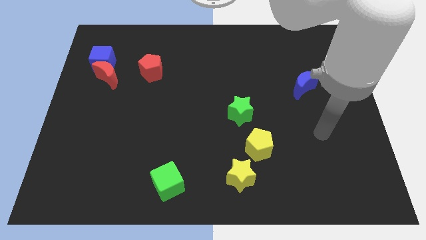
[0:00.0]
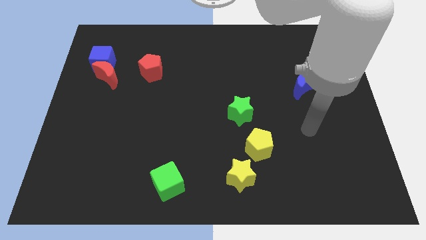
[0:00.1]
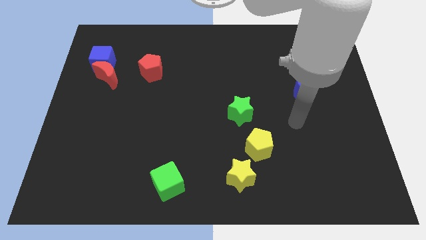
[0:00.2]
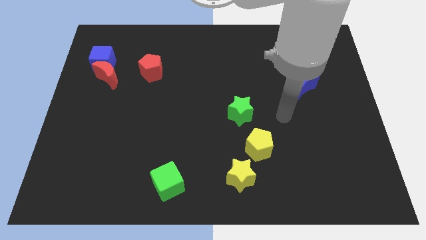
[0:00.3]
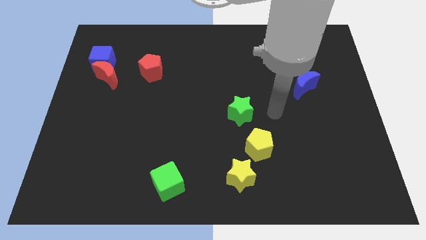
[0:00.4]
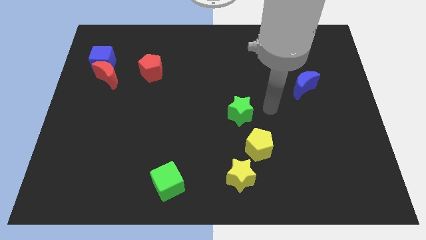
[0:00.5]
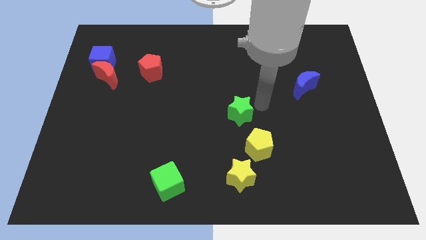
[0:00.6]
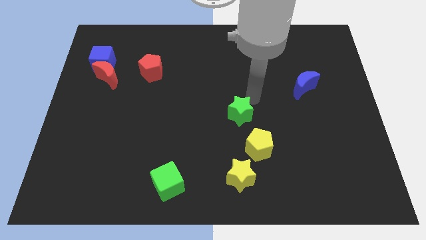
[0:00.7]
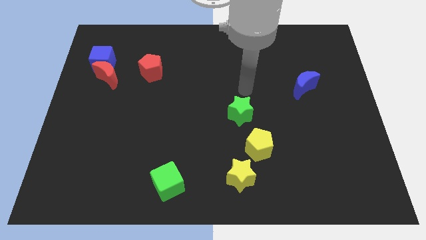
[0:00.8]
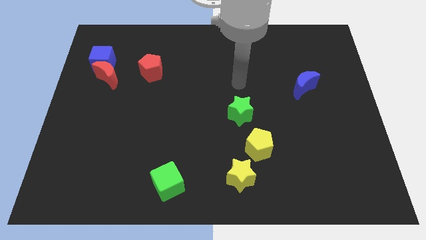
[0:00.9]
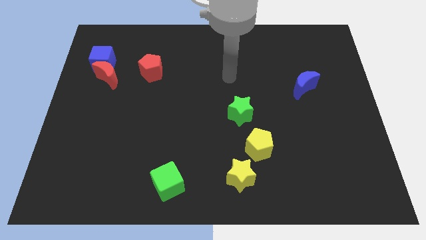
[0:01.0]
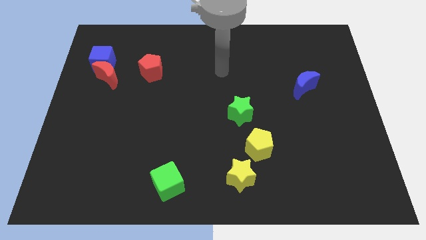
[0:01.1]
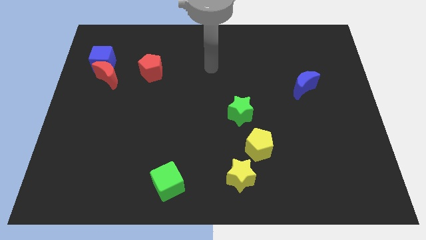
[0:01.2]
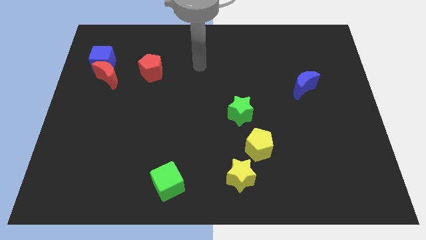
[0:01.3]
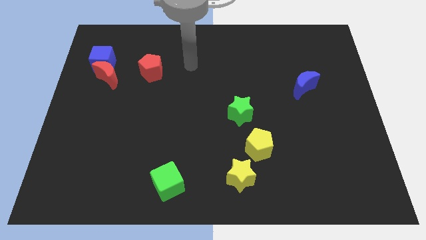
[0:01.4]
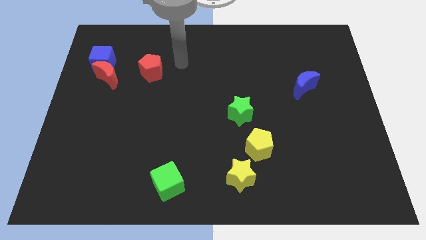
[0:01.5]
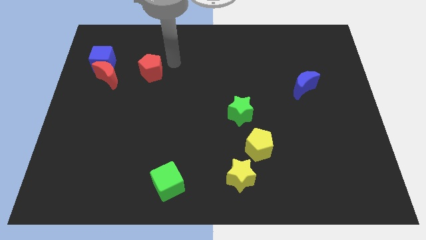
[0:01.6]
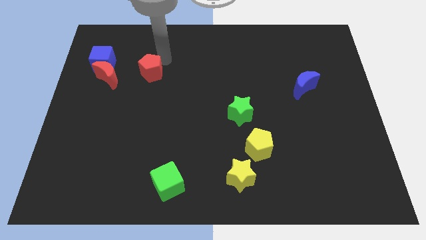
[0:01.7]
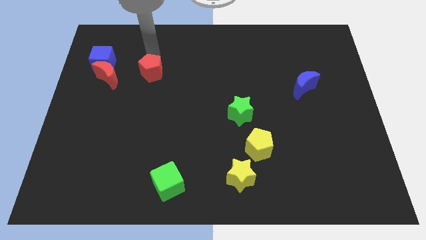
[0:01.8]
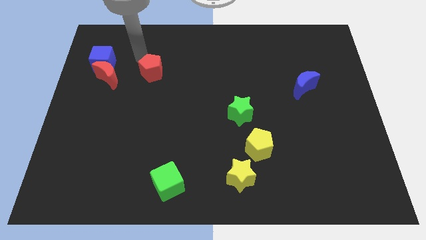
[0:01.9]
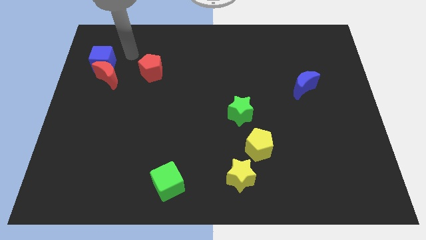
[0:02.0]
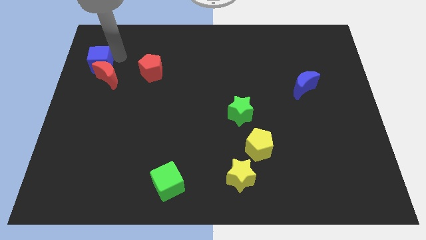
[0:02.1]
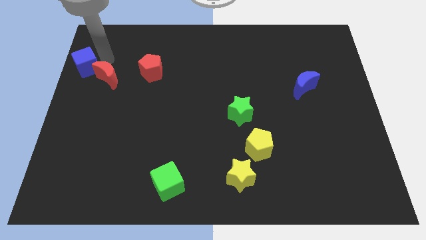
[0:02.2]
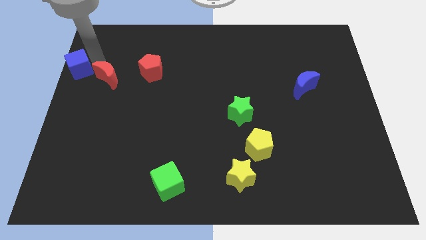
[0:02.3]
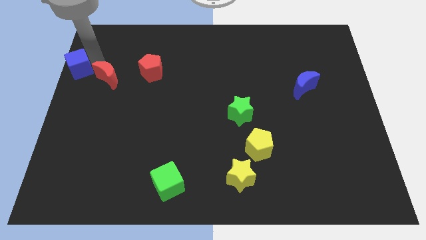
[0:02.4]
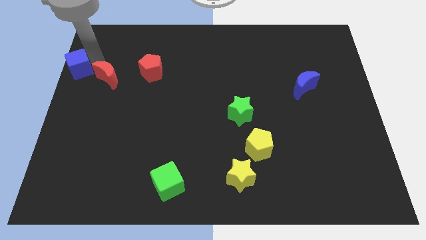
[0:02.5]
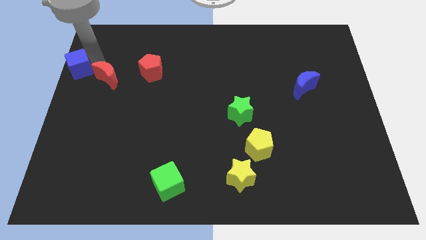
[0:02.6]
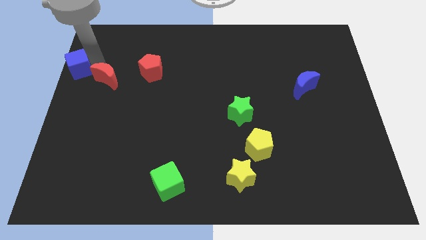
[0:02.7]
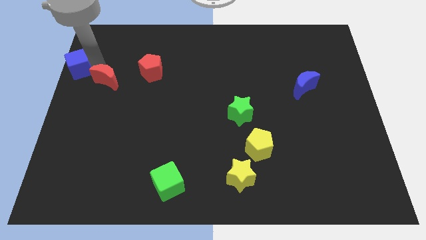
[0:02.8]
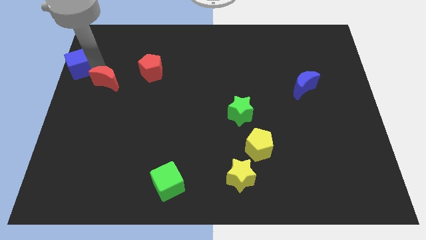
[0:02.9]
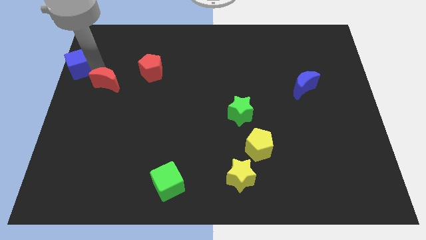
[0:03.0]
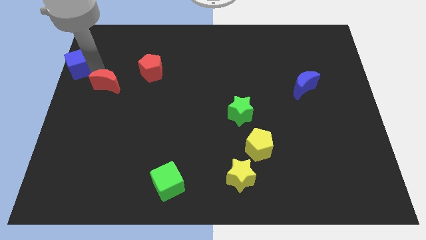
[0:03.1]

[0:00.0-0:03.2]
pull the red moon apart from the blue cube

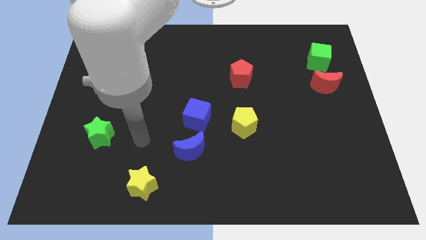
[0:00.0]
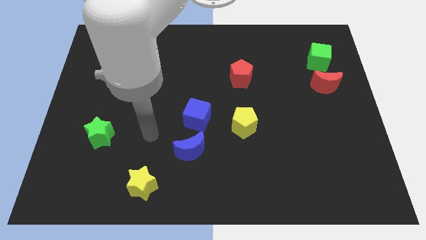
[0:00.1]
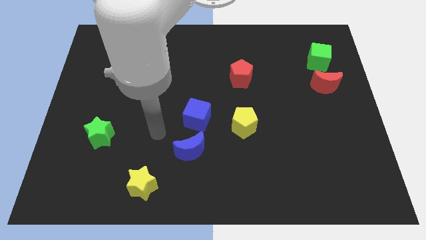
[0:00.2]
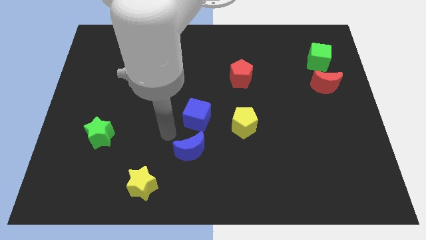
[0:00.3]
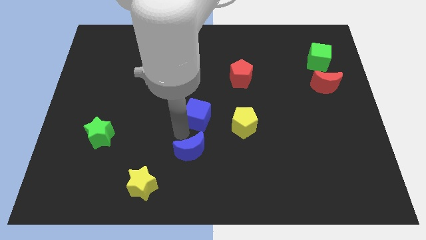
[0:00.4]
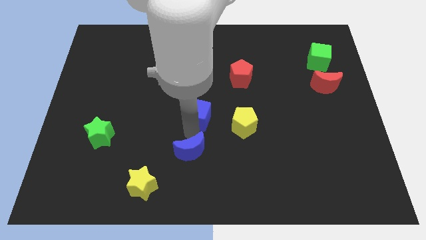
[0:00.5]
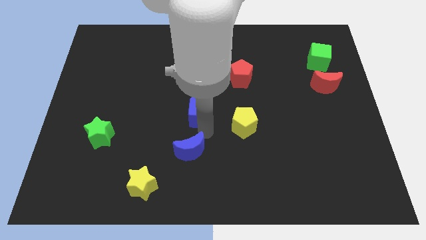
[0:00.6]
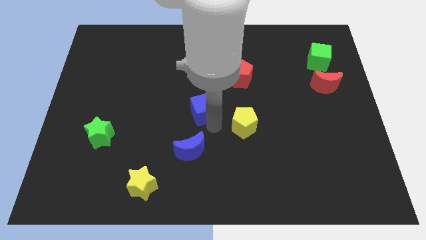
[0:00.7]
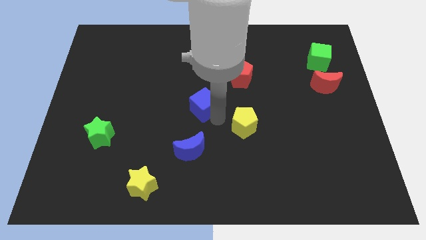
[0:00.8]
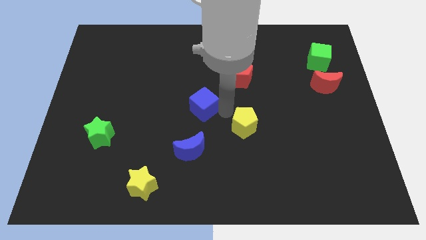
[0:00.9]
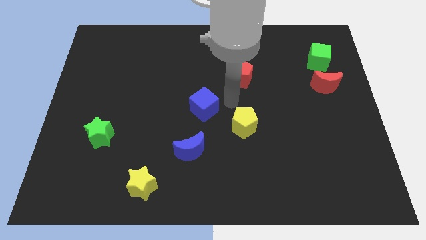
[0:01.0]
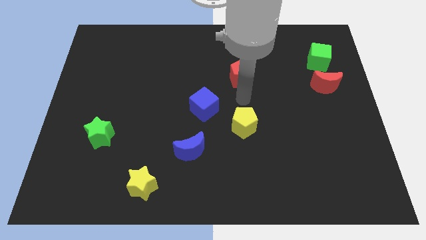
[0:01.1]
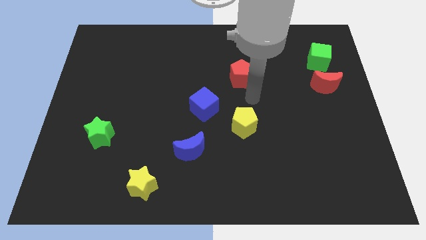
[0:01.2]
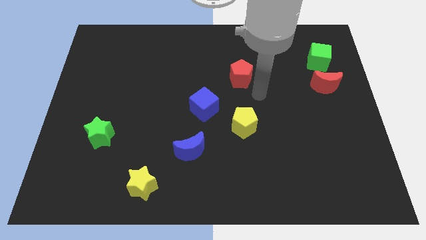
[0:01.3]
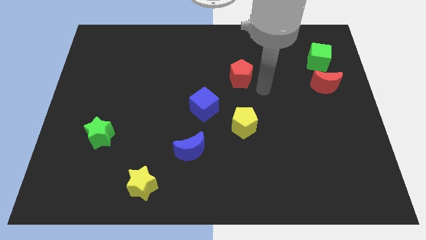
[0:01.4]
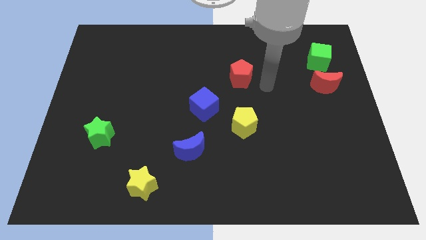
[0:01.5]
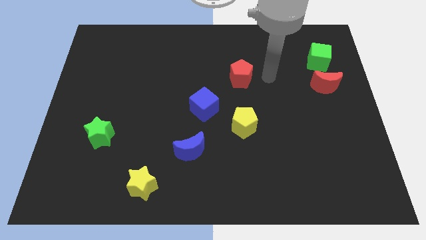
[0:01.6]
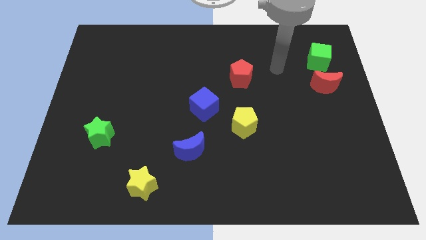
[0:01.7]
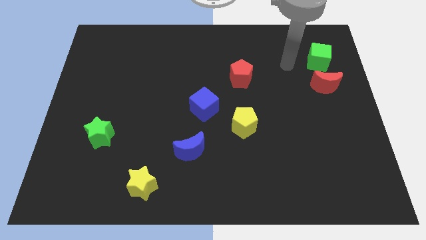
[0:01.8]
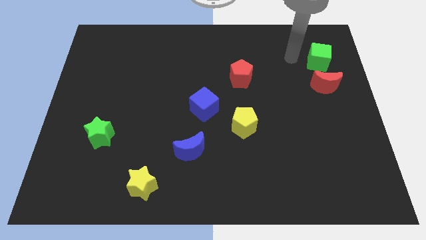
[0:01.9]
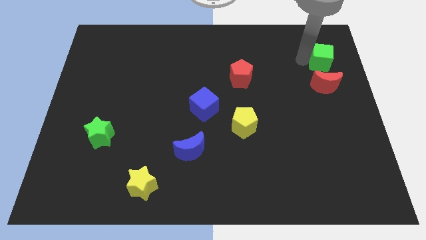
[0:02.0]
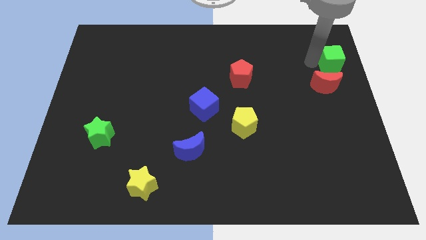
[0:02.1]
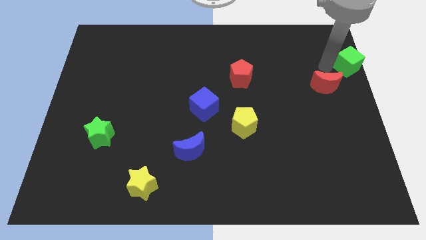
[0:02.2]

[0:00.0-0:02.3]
separate the red moon from the green cube

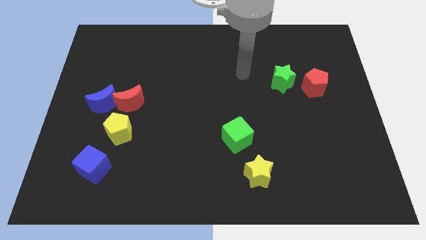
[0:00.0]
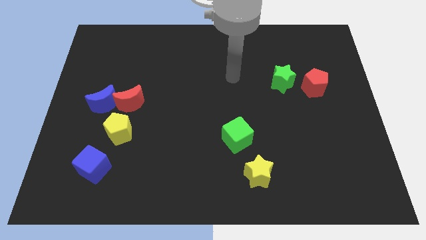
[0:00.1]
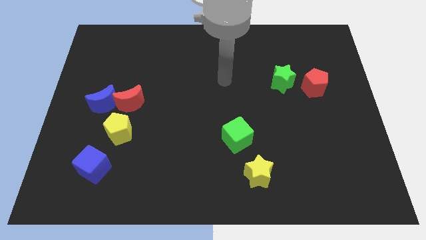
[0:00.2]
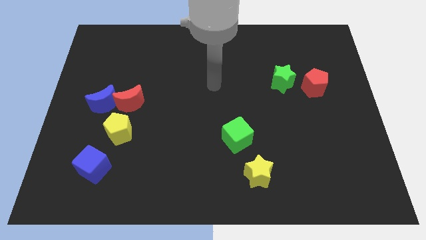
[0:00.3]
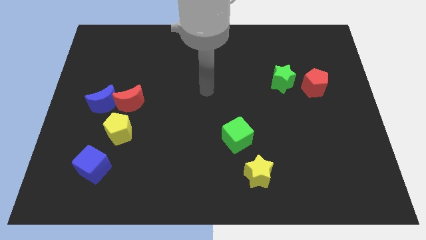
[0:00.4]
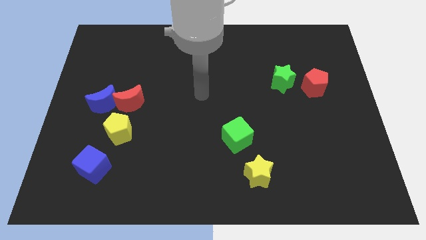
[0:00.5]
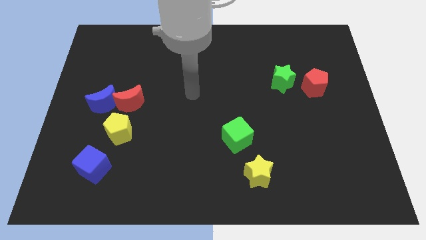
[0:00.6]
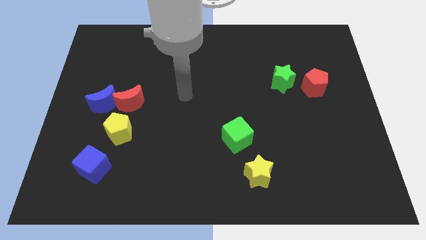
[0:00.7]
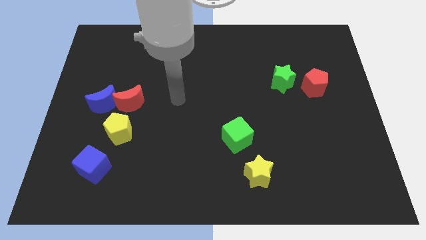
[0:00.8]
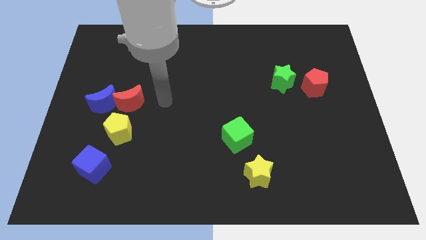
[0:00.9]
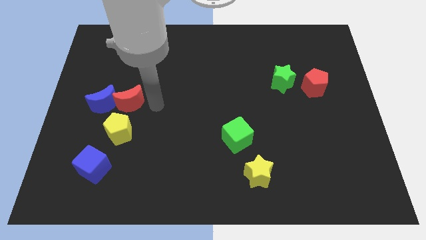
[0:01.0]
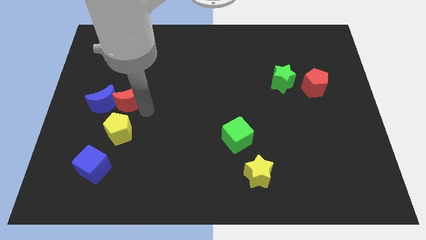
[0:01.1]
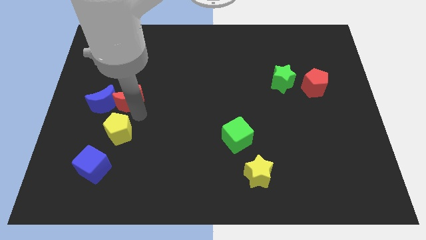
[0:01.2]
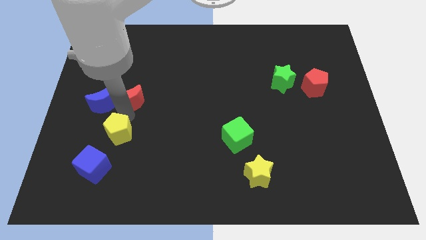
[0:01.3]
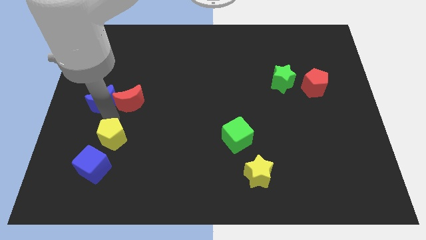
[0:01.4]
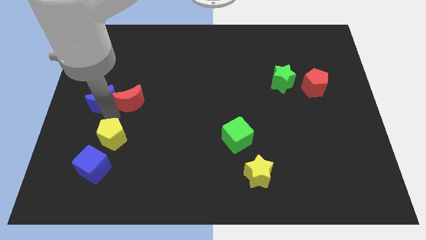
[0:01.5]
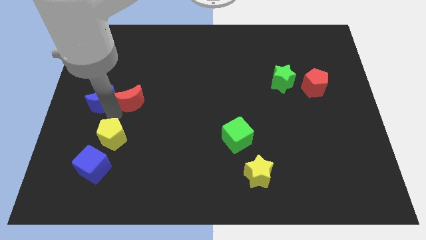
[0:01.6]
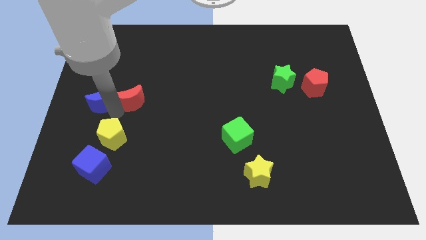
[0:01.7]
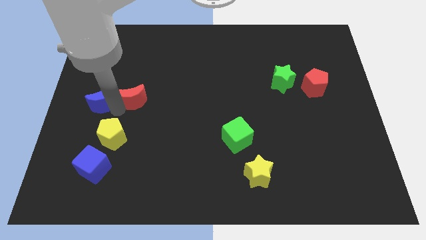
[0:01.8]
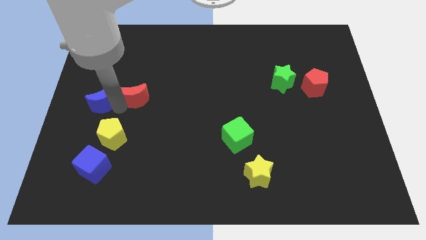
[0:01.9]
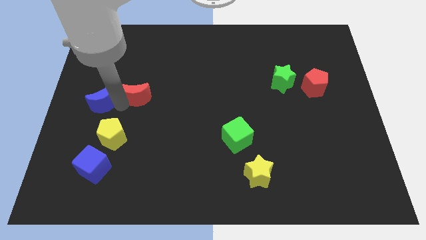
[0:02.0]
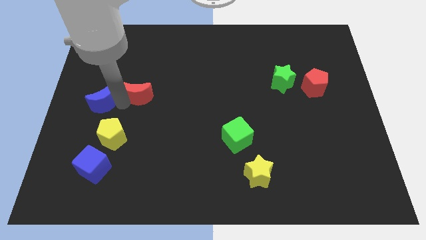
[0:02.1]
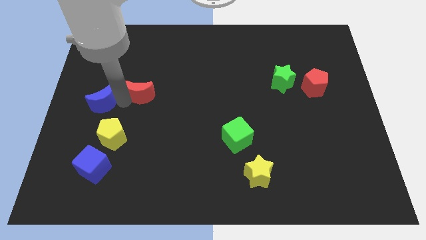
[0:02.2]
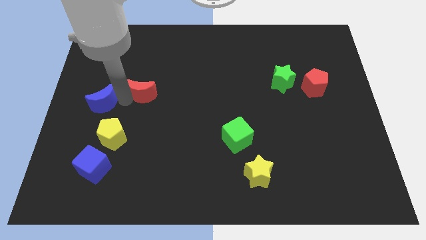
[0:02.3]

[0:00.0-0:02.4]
move the red moon away from the blue moon and yellow pentagon

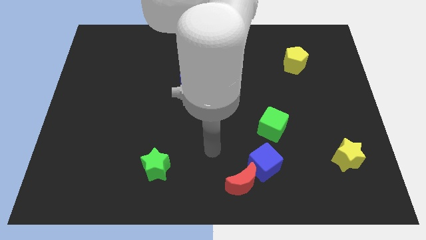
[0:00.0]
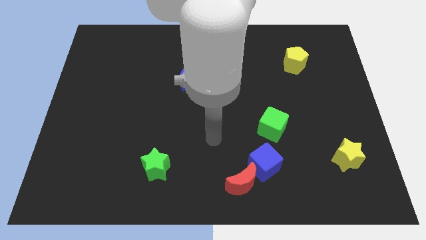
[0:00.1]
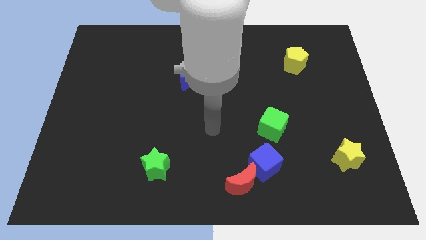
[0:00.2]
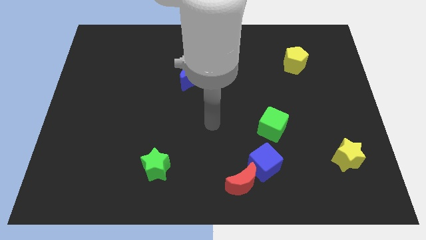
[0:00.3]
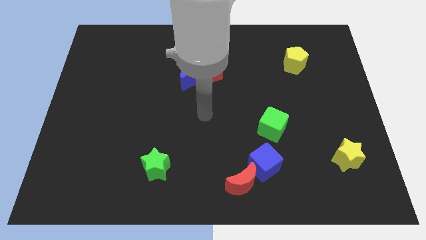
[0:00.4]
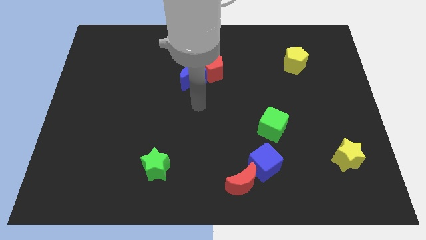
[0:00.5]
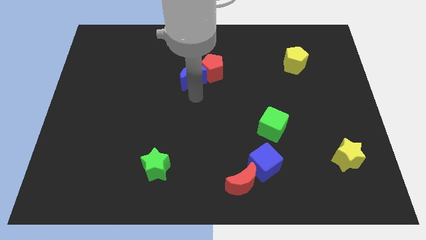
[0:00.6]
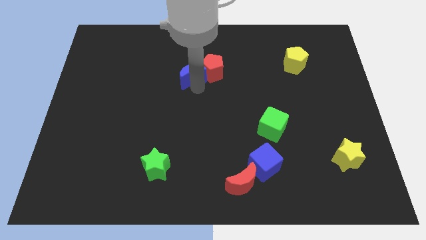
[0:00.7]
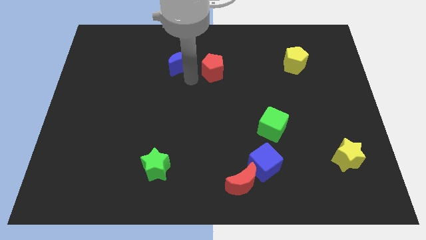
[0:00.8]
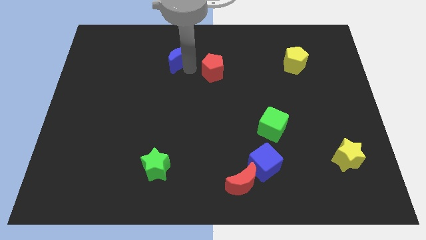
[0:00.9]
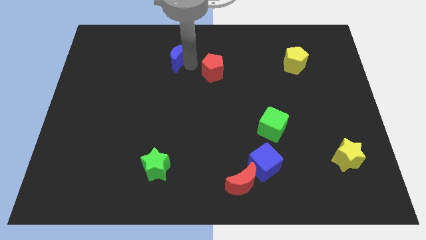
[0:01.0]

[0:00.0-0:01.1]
pull the red pentagon apart from the blue moon

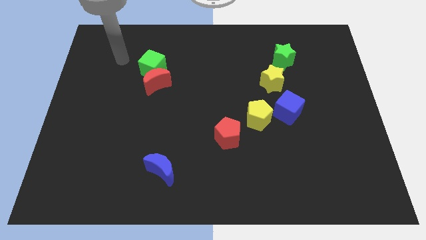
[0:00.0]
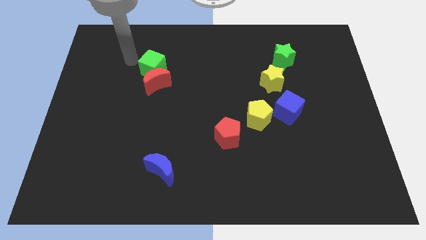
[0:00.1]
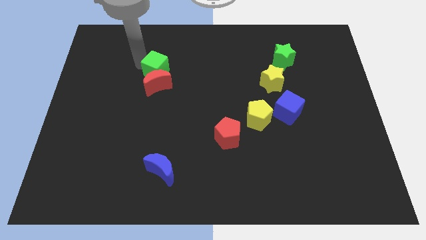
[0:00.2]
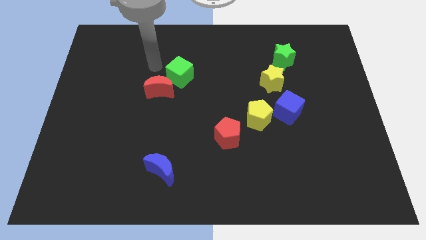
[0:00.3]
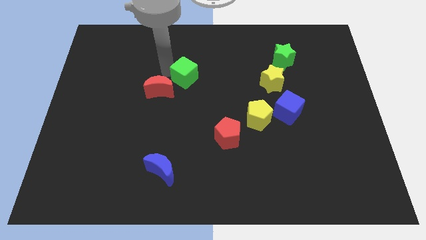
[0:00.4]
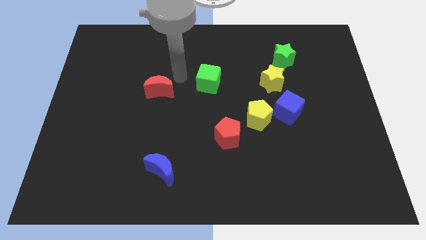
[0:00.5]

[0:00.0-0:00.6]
move the red moon away from the green cube
